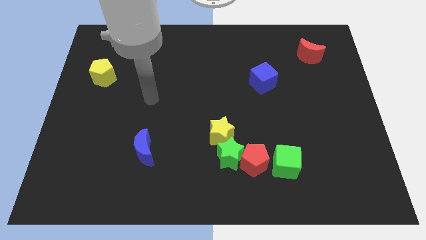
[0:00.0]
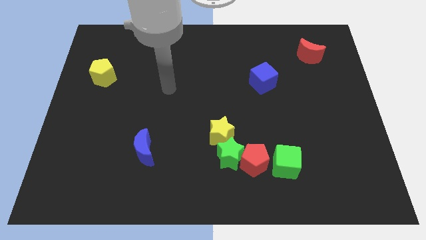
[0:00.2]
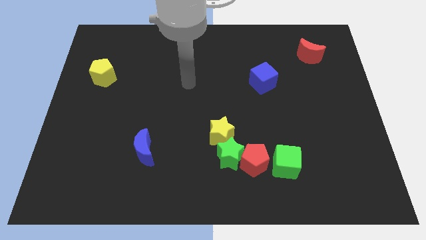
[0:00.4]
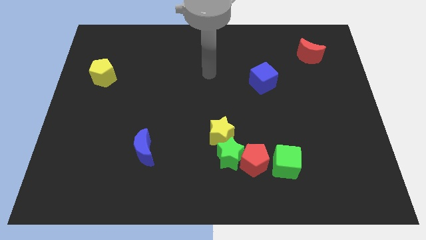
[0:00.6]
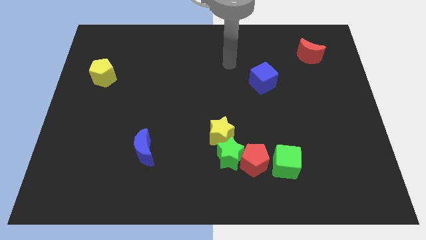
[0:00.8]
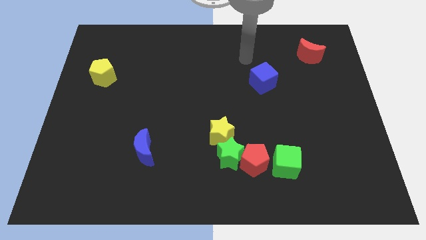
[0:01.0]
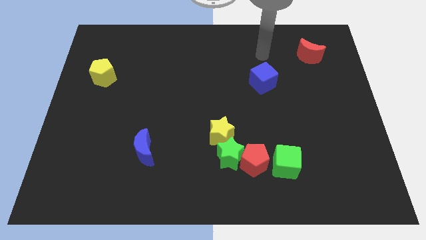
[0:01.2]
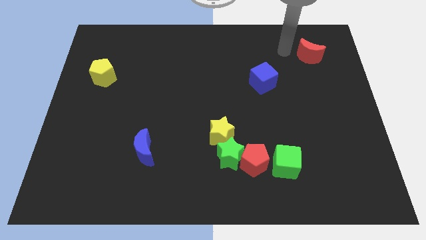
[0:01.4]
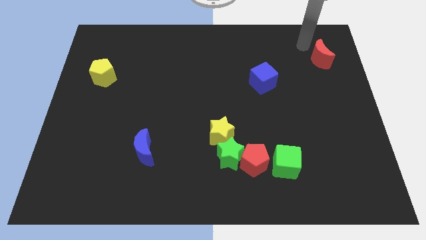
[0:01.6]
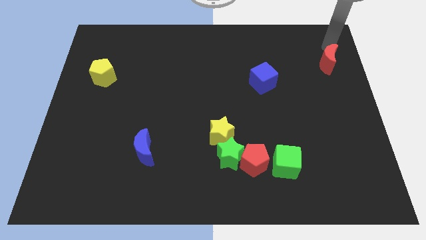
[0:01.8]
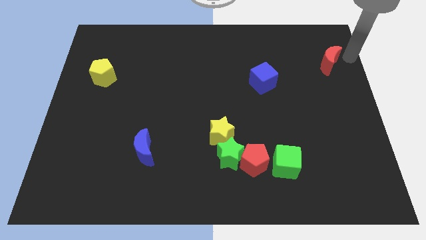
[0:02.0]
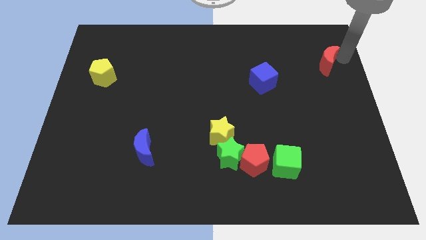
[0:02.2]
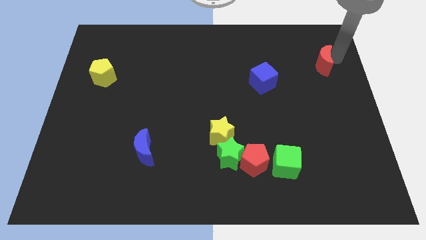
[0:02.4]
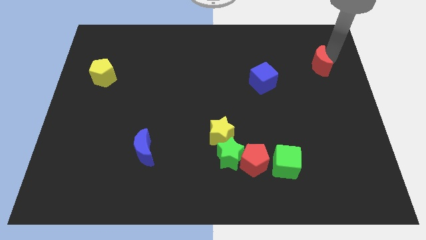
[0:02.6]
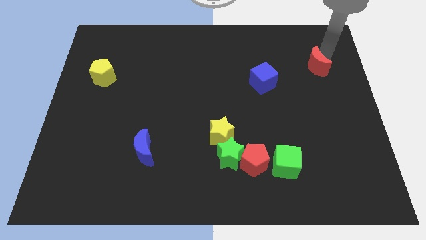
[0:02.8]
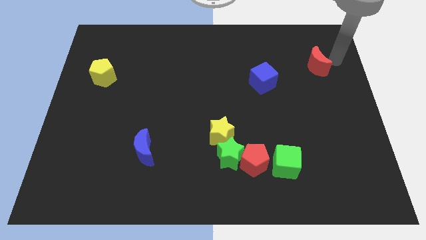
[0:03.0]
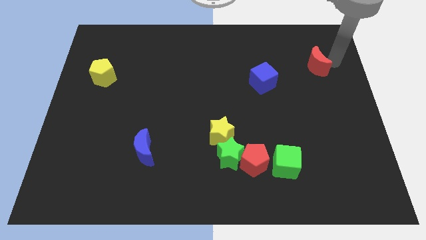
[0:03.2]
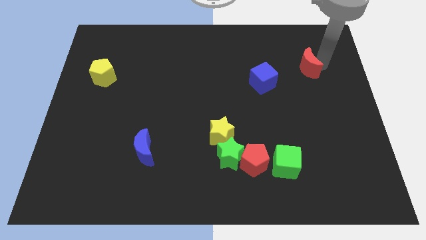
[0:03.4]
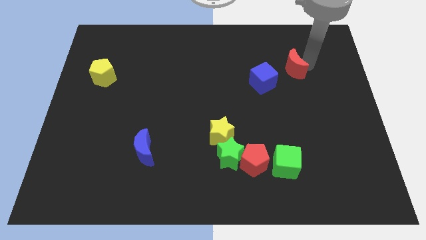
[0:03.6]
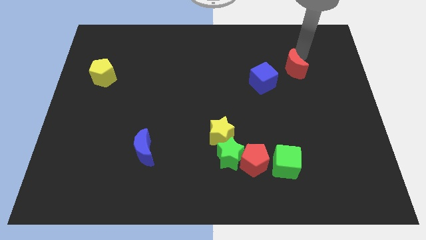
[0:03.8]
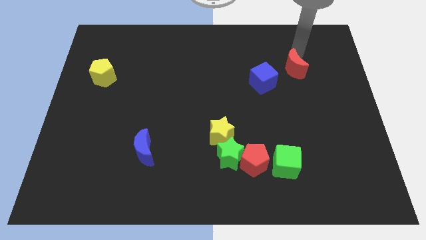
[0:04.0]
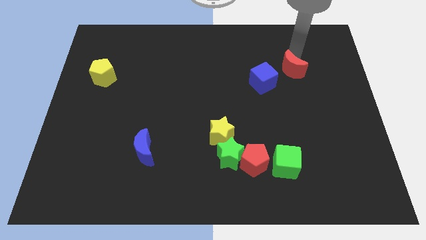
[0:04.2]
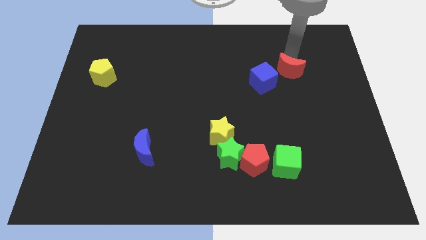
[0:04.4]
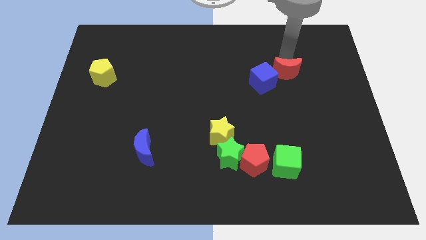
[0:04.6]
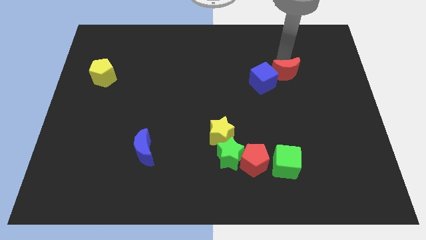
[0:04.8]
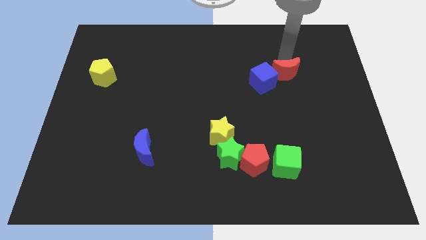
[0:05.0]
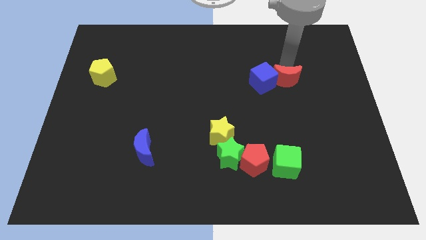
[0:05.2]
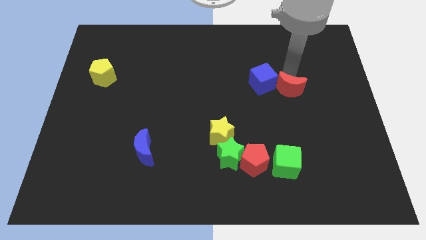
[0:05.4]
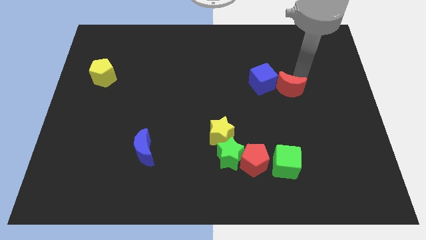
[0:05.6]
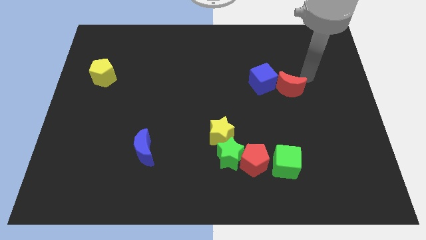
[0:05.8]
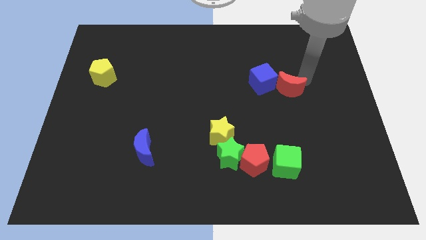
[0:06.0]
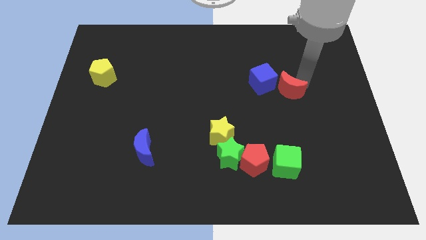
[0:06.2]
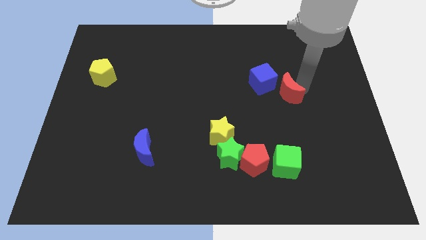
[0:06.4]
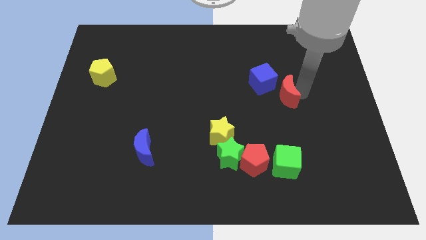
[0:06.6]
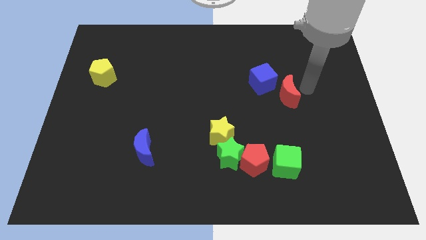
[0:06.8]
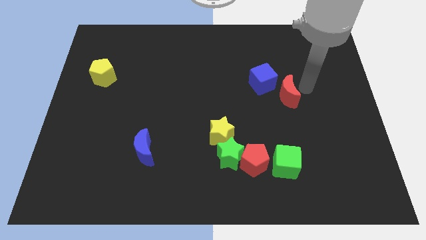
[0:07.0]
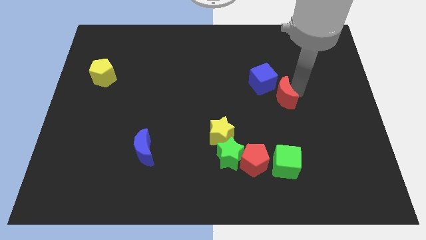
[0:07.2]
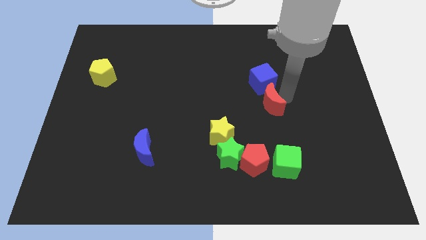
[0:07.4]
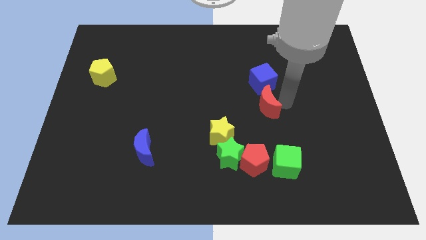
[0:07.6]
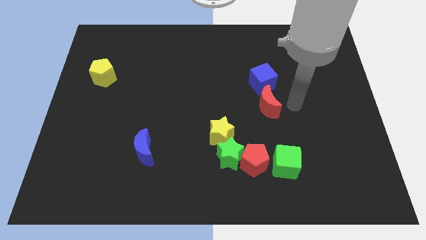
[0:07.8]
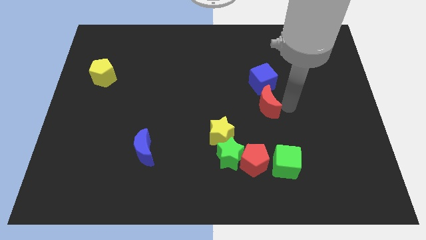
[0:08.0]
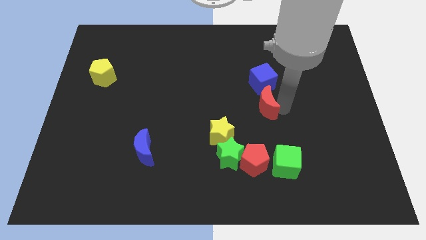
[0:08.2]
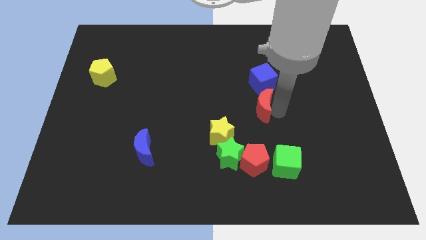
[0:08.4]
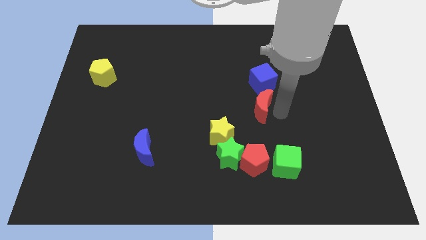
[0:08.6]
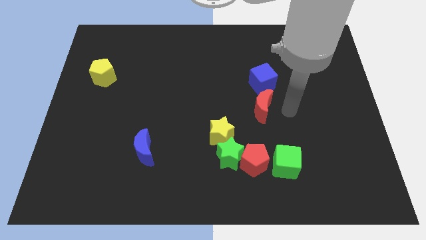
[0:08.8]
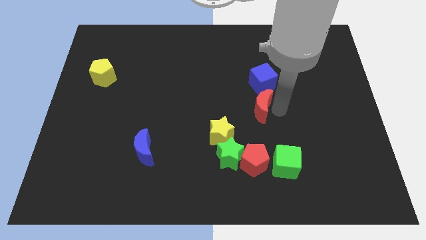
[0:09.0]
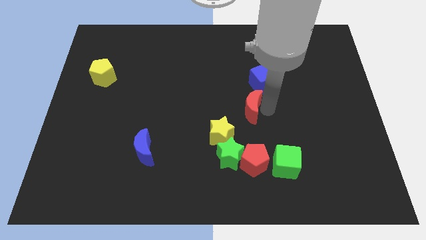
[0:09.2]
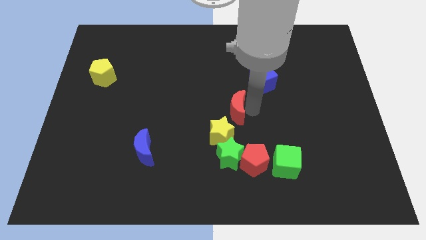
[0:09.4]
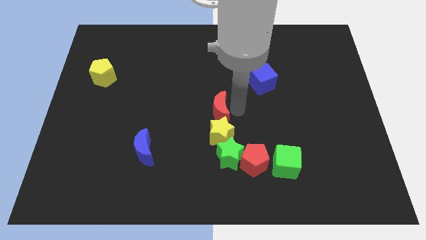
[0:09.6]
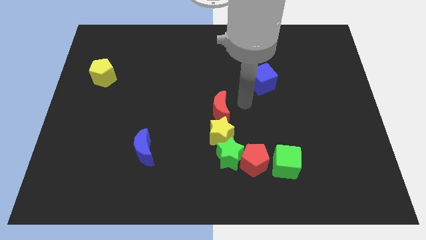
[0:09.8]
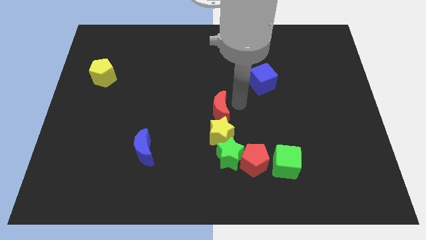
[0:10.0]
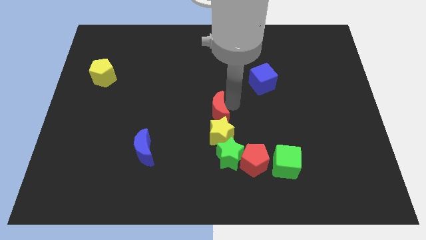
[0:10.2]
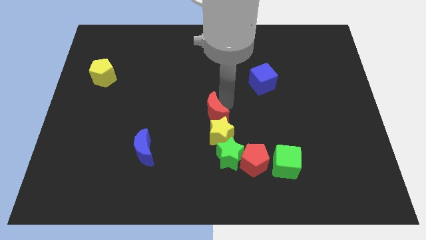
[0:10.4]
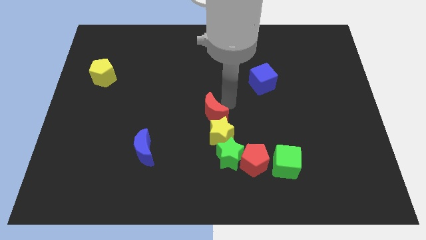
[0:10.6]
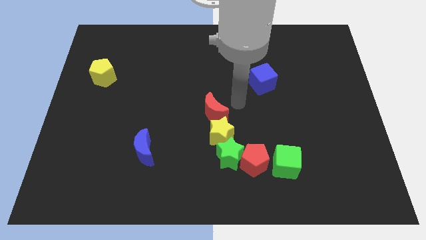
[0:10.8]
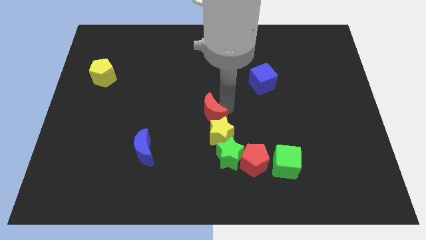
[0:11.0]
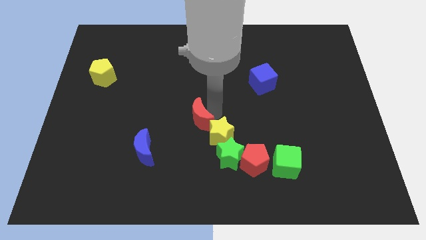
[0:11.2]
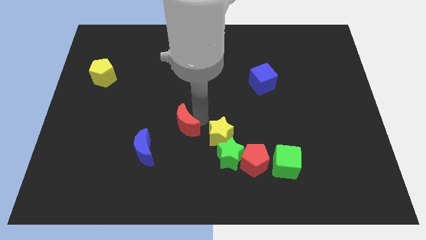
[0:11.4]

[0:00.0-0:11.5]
move the red moon to the top right of the blue moon

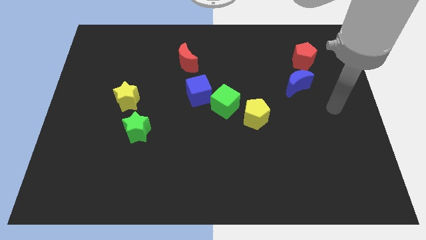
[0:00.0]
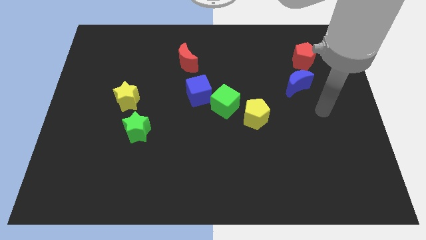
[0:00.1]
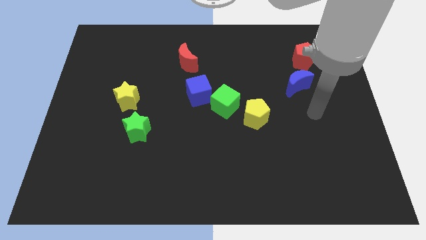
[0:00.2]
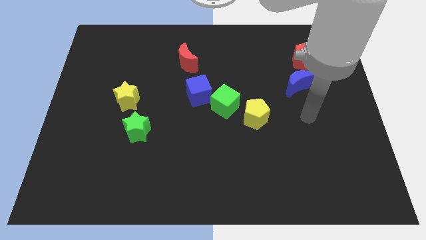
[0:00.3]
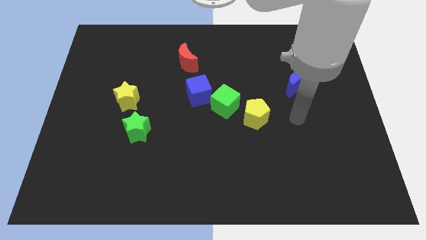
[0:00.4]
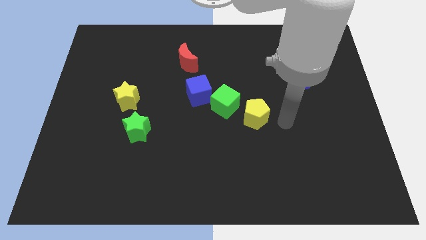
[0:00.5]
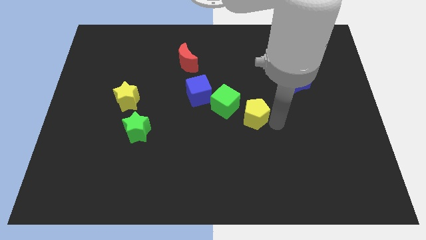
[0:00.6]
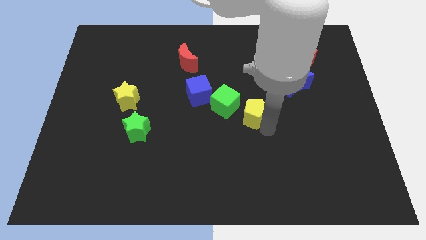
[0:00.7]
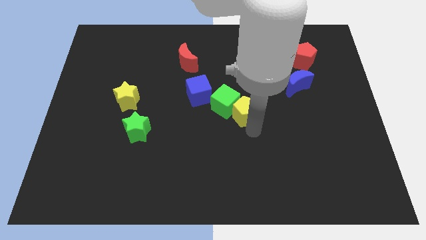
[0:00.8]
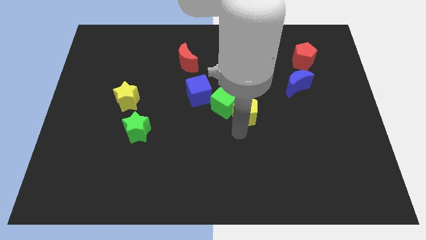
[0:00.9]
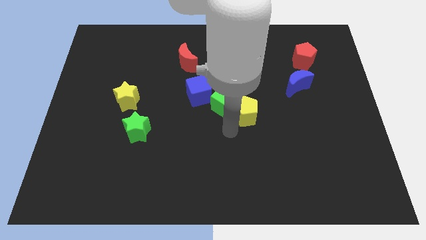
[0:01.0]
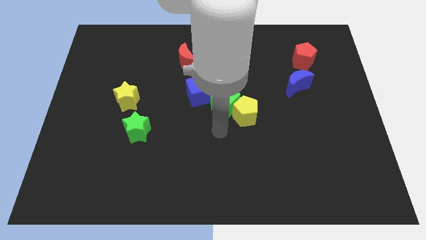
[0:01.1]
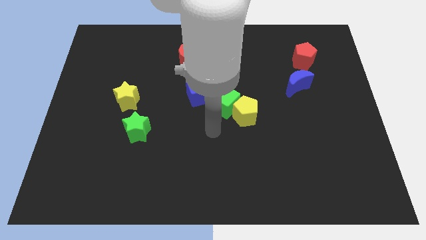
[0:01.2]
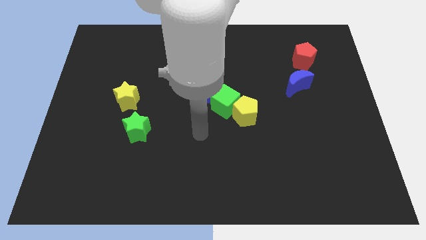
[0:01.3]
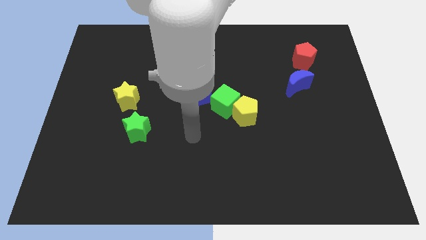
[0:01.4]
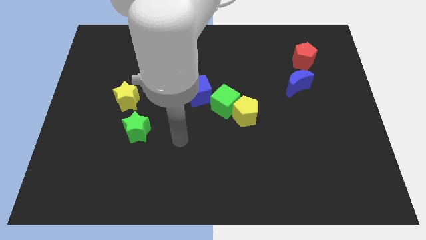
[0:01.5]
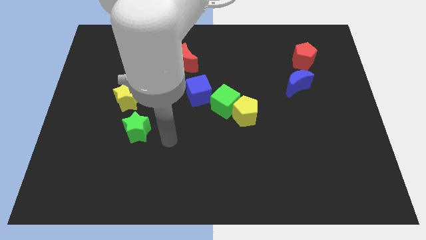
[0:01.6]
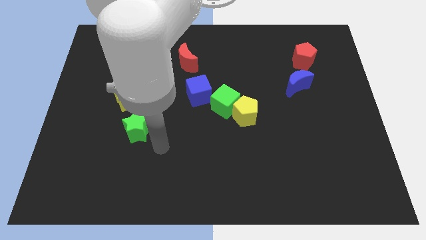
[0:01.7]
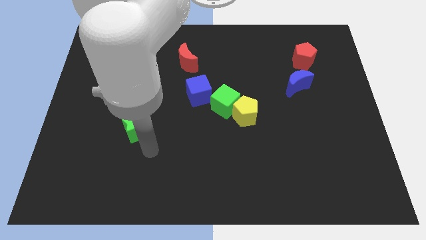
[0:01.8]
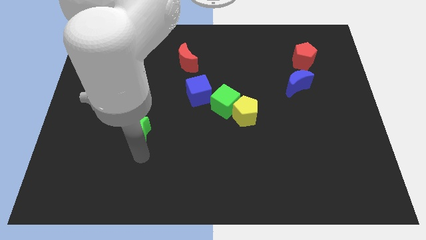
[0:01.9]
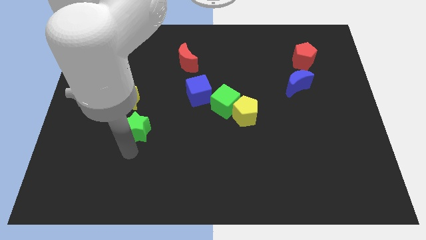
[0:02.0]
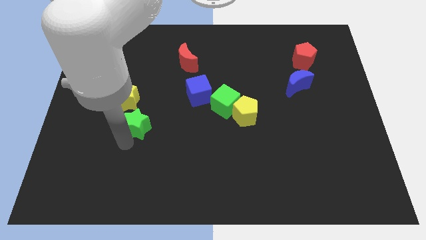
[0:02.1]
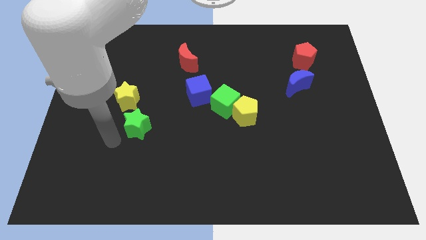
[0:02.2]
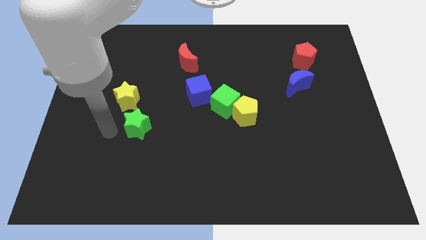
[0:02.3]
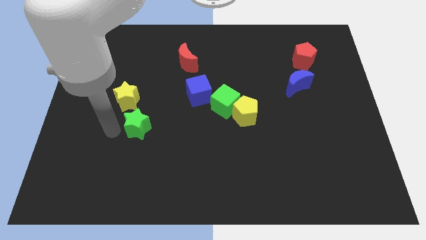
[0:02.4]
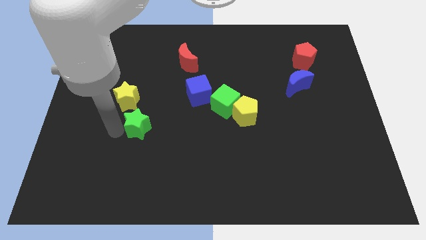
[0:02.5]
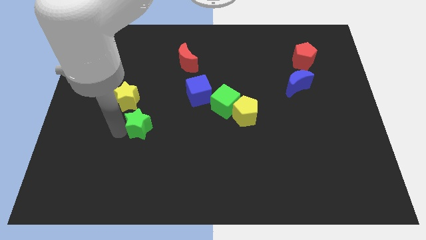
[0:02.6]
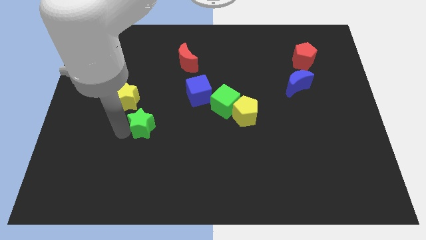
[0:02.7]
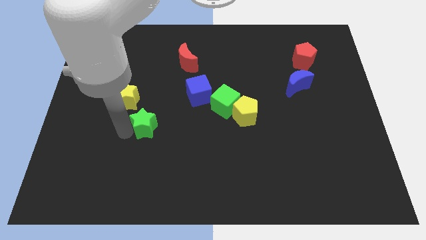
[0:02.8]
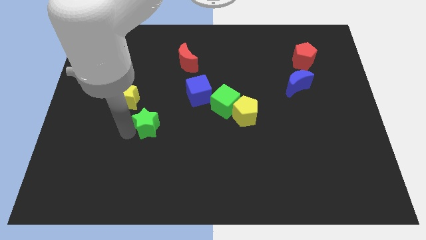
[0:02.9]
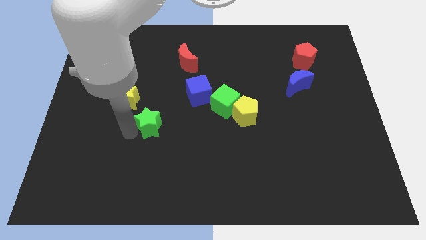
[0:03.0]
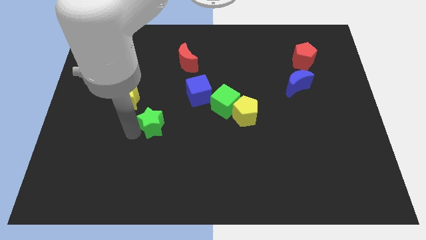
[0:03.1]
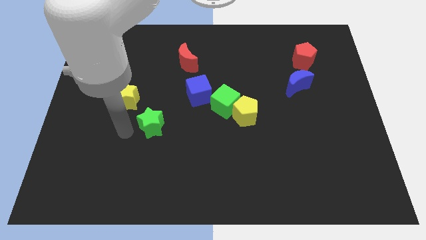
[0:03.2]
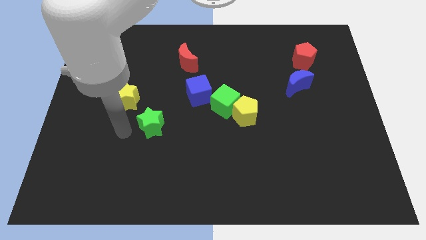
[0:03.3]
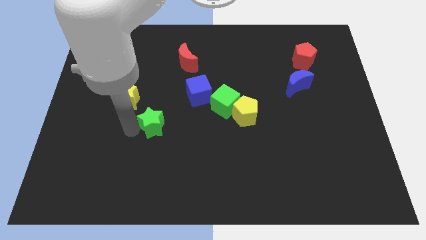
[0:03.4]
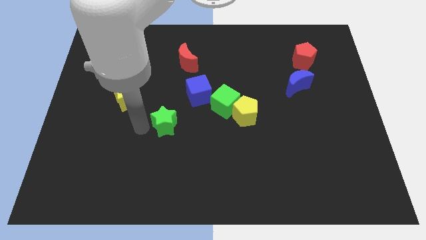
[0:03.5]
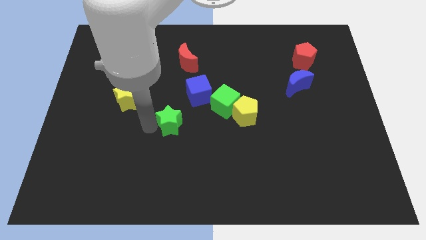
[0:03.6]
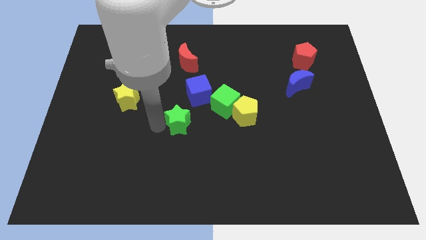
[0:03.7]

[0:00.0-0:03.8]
move the green star to the left of the yellow pentagon
